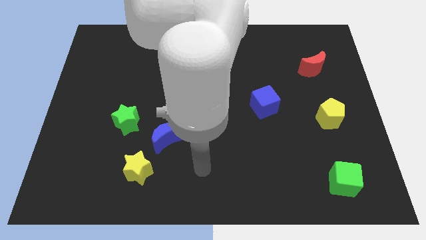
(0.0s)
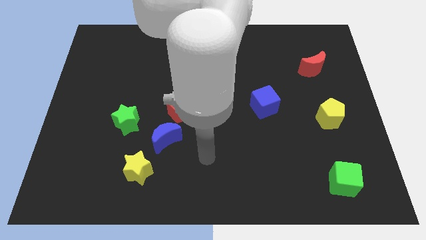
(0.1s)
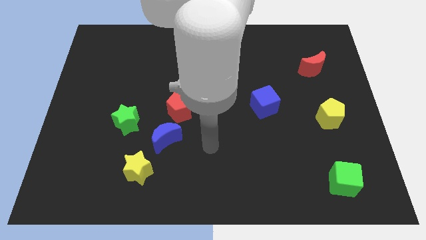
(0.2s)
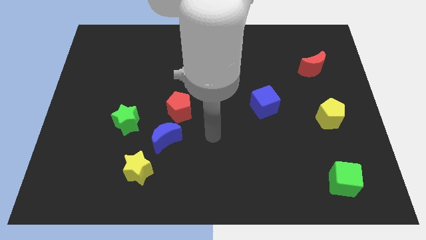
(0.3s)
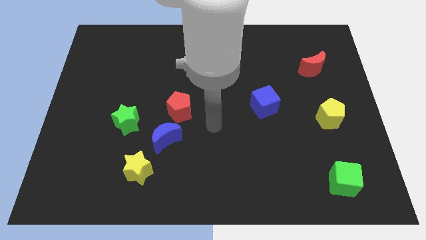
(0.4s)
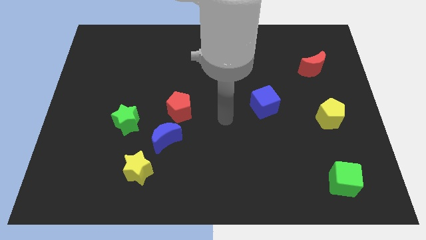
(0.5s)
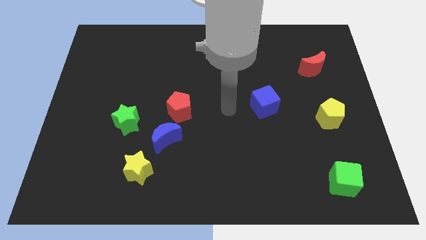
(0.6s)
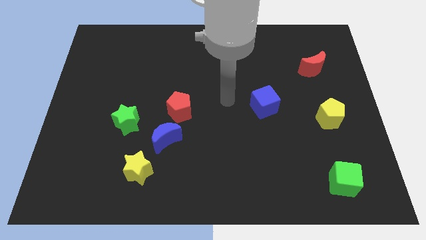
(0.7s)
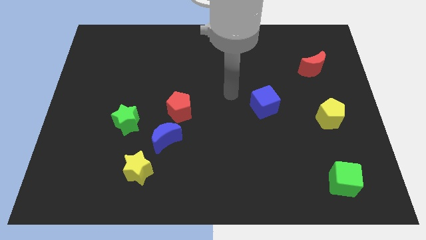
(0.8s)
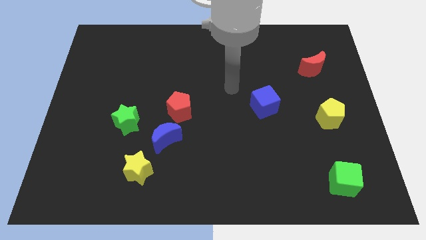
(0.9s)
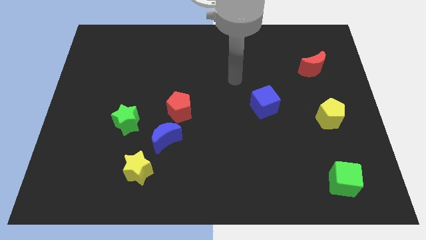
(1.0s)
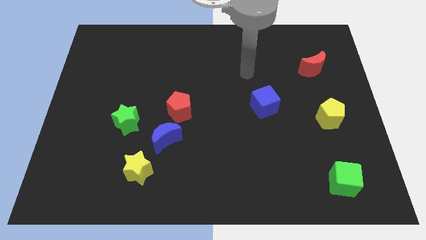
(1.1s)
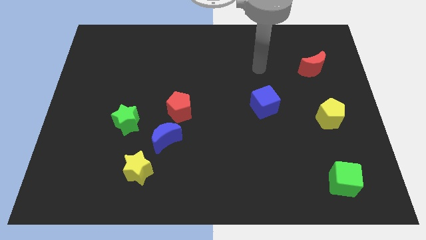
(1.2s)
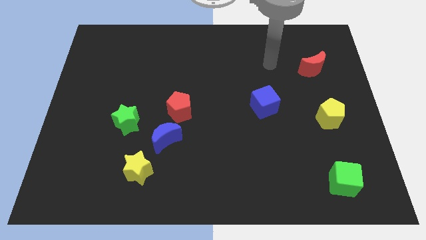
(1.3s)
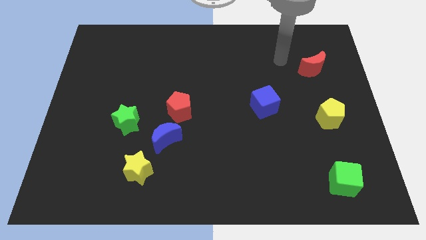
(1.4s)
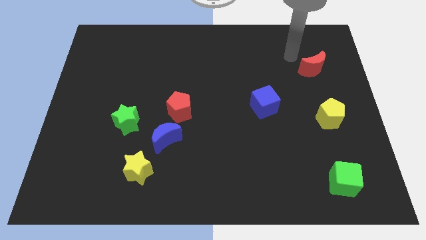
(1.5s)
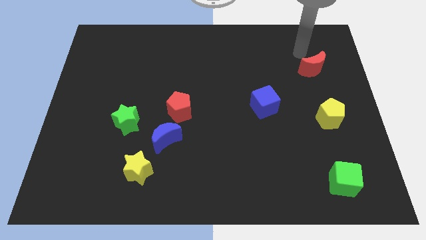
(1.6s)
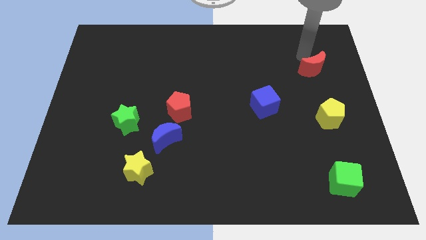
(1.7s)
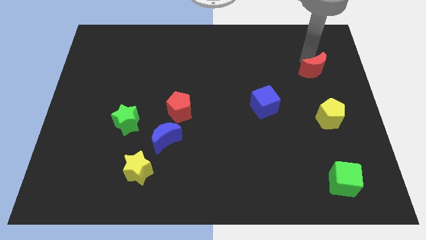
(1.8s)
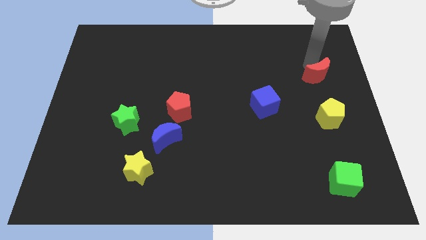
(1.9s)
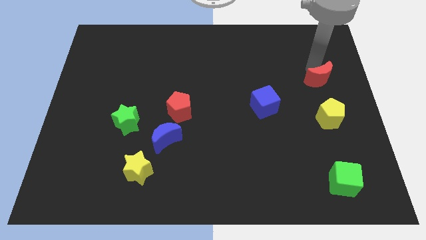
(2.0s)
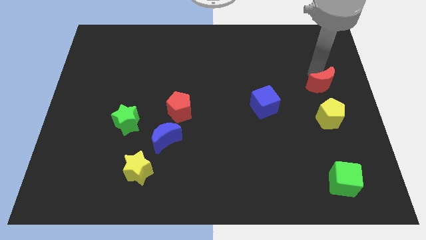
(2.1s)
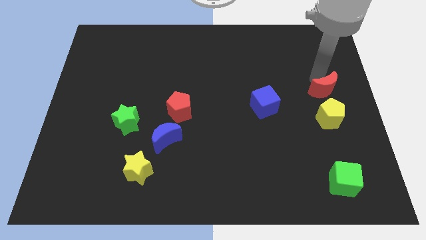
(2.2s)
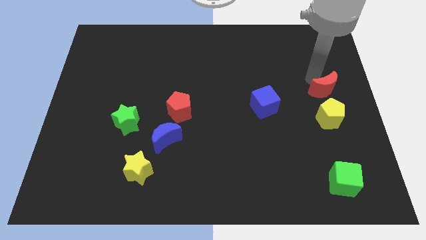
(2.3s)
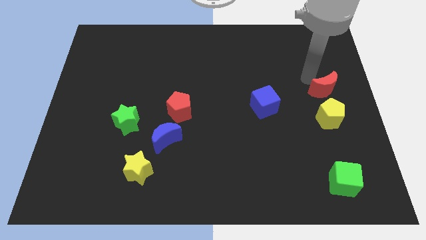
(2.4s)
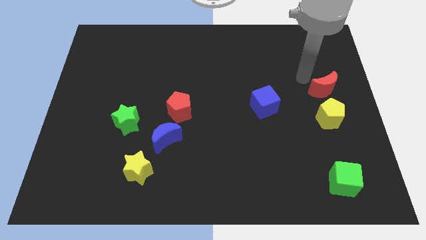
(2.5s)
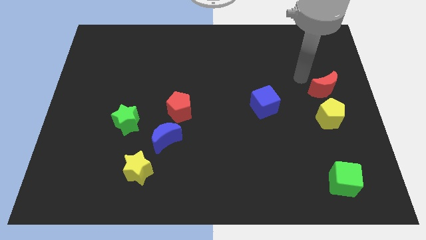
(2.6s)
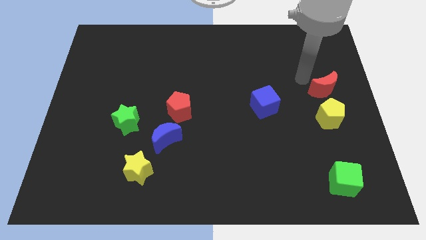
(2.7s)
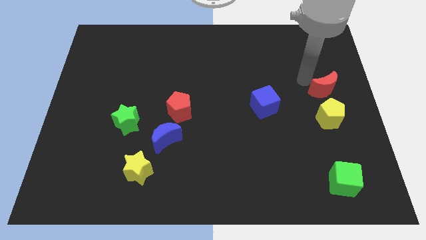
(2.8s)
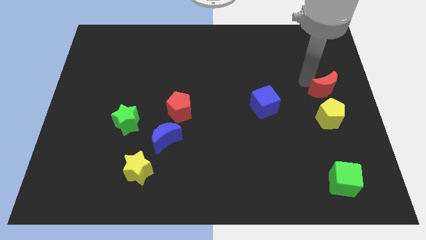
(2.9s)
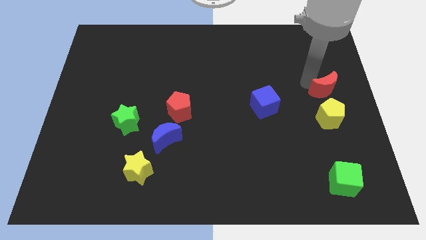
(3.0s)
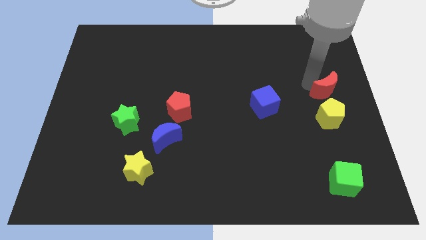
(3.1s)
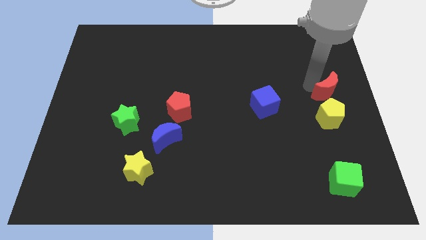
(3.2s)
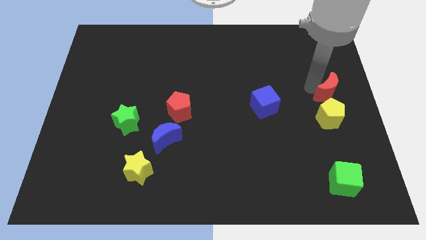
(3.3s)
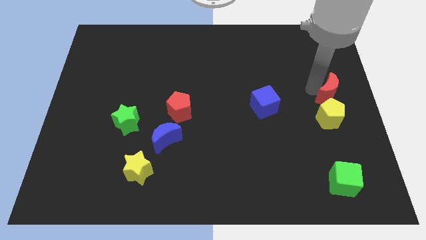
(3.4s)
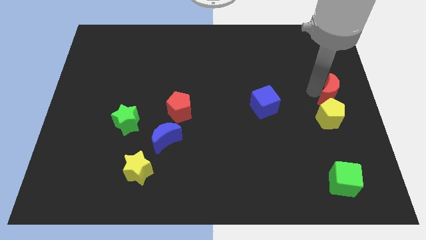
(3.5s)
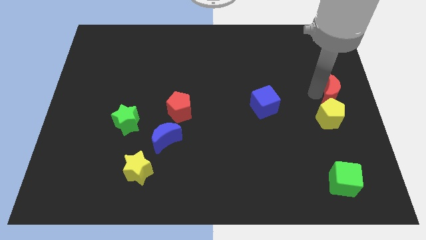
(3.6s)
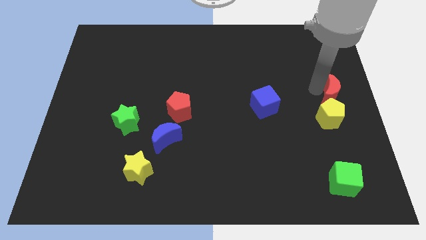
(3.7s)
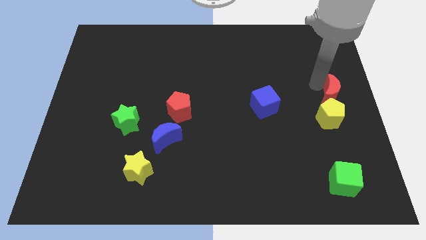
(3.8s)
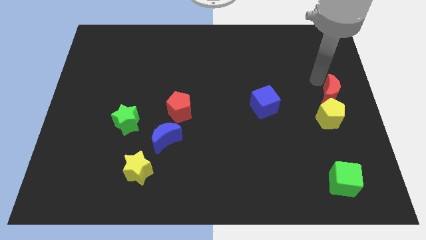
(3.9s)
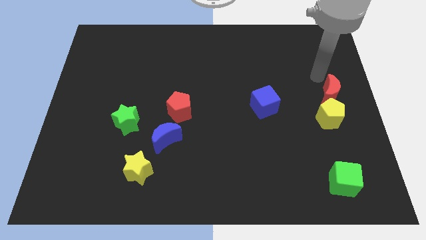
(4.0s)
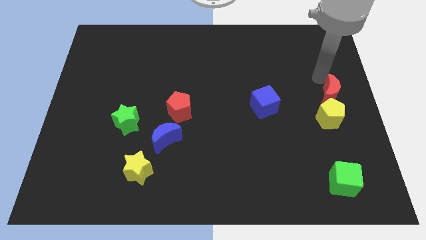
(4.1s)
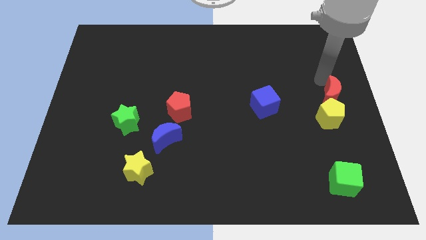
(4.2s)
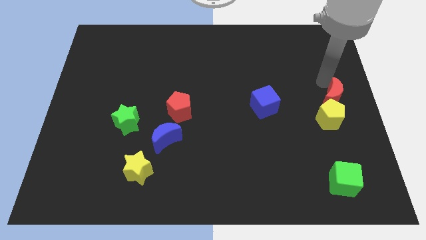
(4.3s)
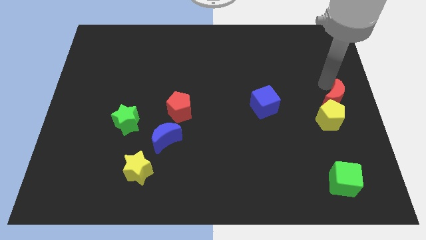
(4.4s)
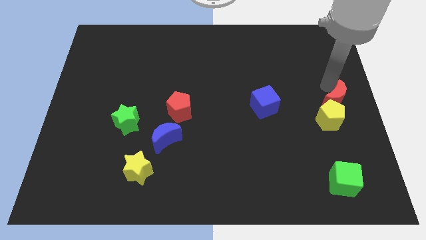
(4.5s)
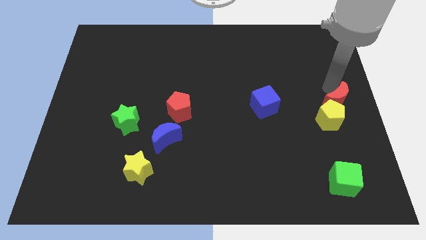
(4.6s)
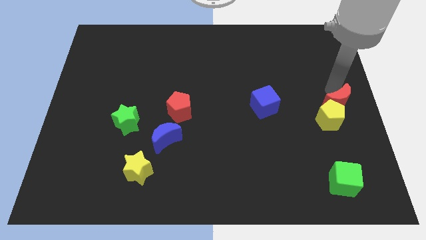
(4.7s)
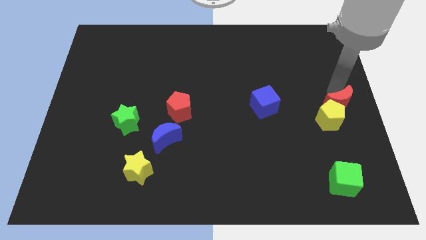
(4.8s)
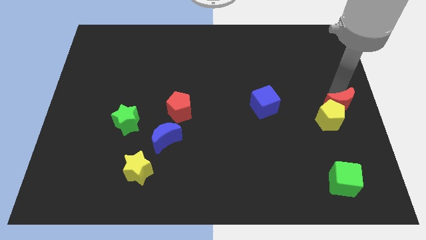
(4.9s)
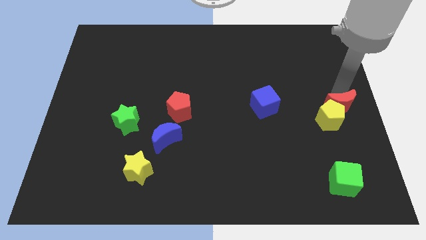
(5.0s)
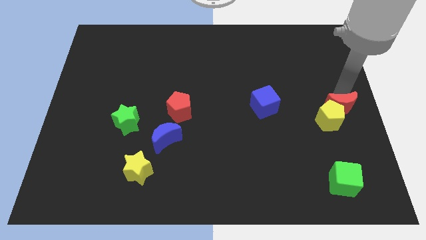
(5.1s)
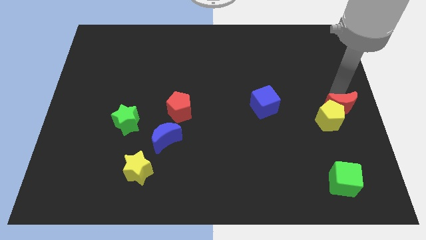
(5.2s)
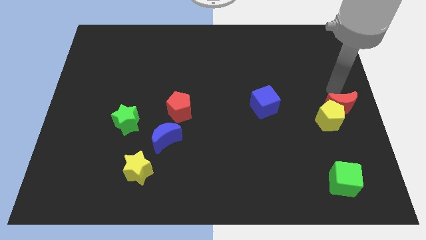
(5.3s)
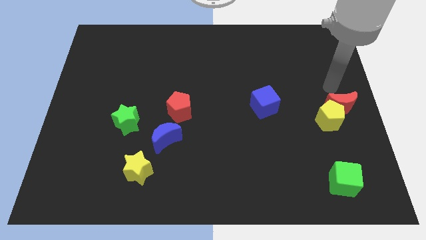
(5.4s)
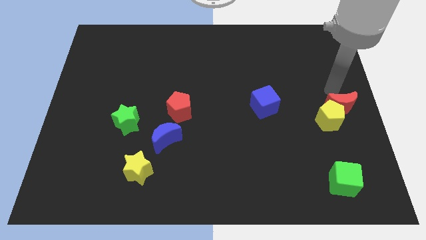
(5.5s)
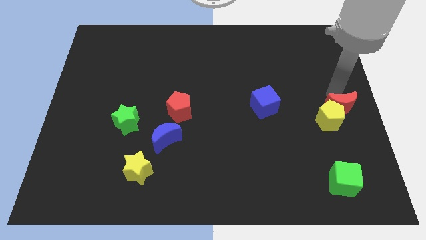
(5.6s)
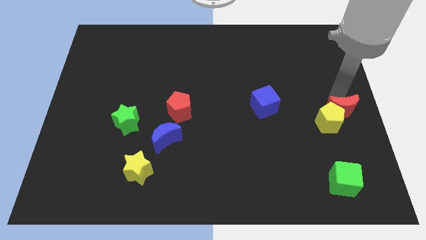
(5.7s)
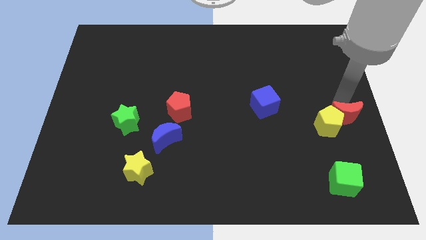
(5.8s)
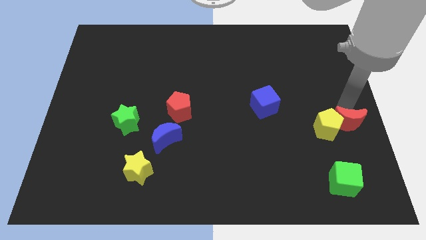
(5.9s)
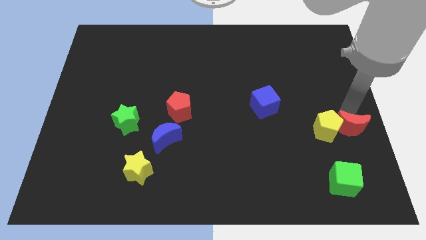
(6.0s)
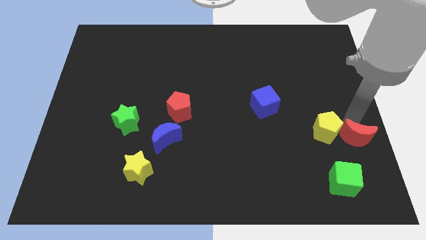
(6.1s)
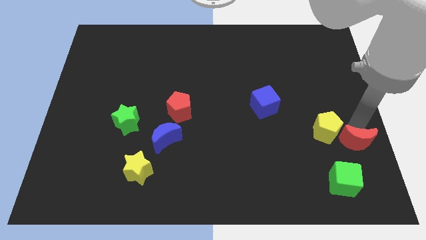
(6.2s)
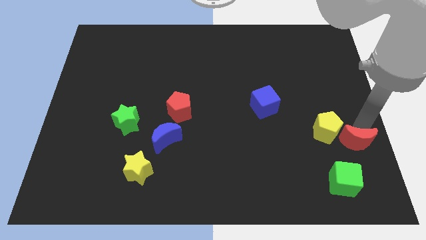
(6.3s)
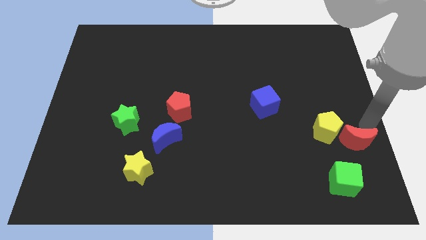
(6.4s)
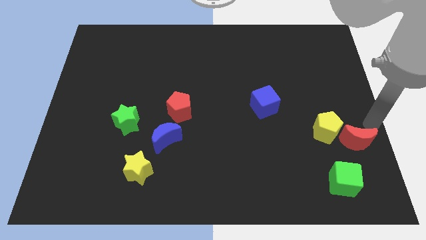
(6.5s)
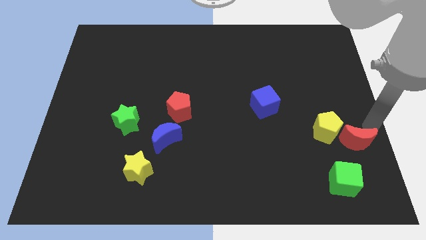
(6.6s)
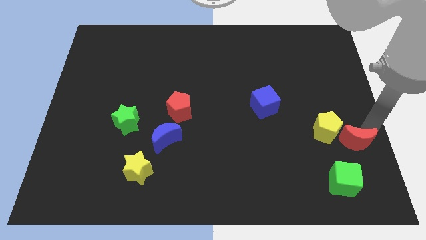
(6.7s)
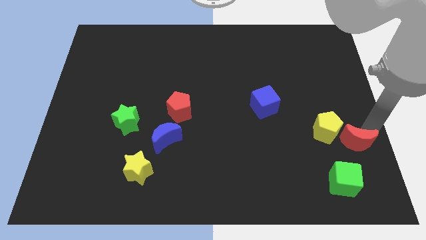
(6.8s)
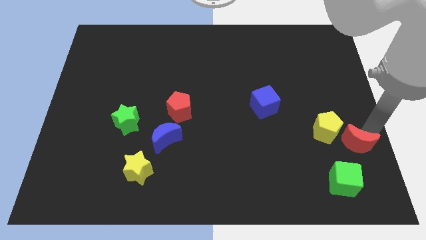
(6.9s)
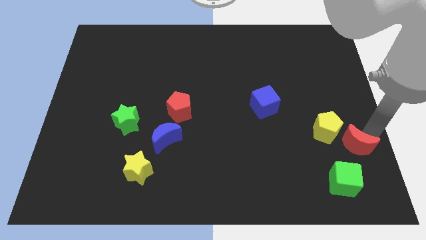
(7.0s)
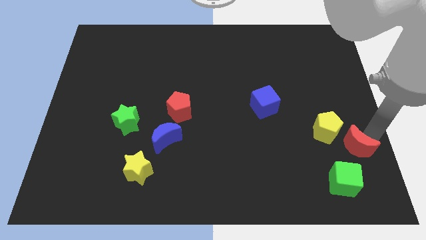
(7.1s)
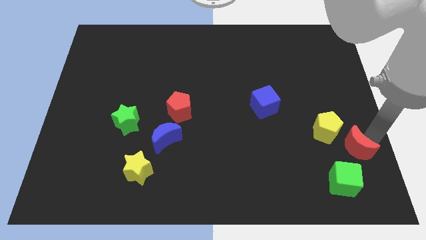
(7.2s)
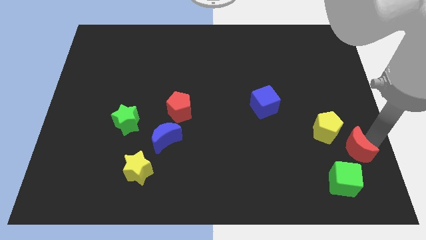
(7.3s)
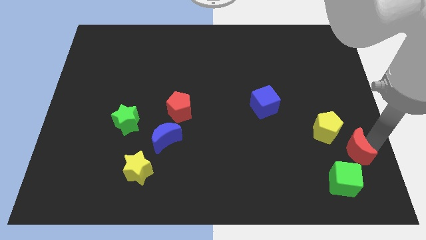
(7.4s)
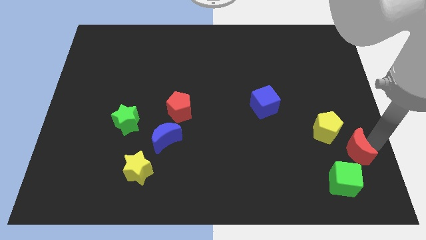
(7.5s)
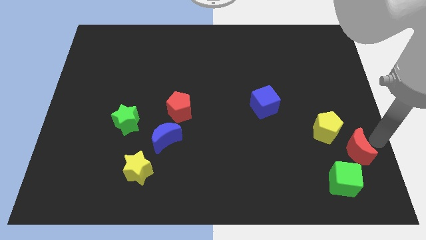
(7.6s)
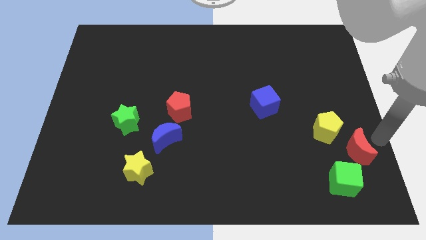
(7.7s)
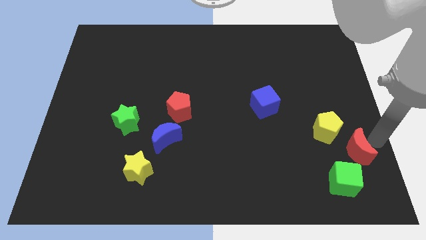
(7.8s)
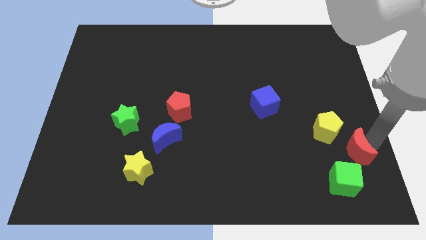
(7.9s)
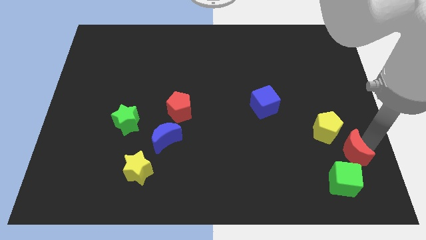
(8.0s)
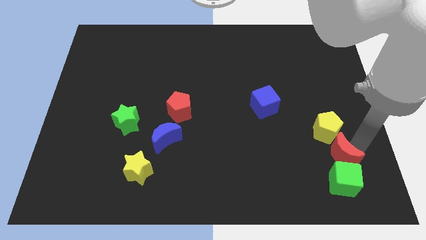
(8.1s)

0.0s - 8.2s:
put the red moon close to the green cube
